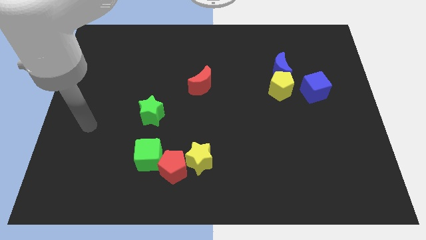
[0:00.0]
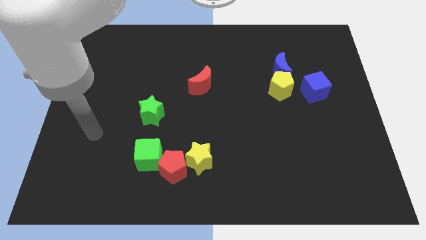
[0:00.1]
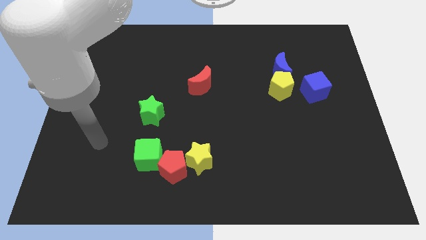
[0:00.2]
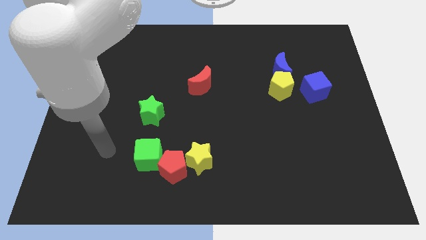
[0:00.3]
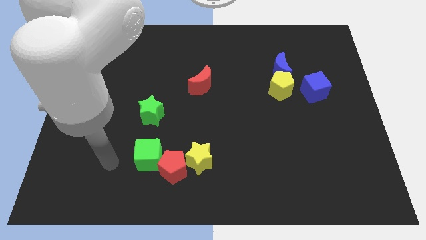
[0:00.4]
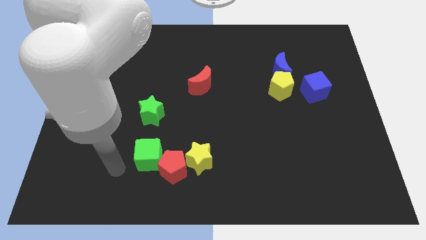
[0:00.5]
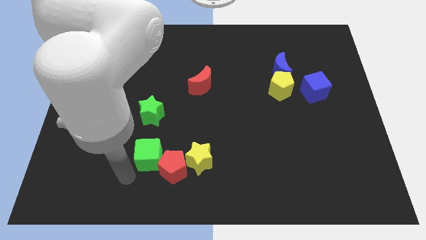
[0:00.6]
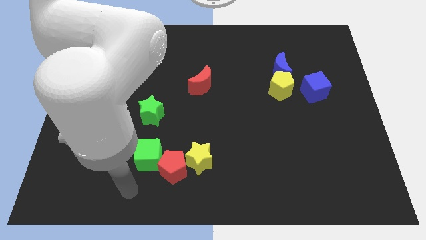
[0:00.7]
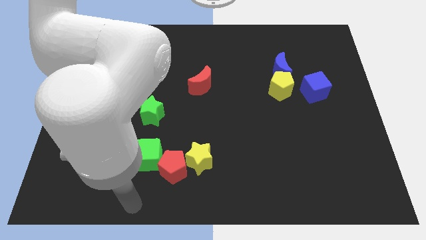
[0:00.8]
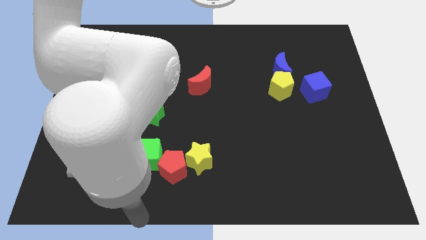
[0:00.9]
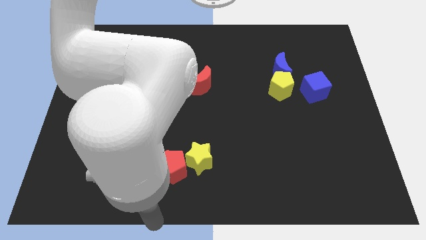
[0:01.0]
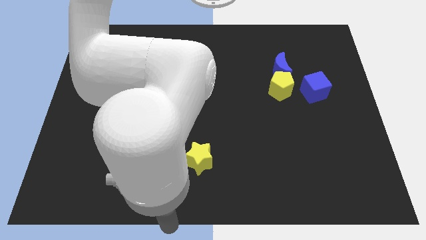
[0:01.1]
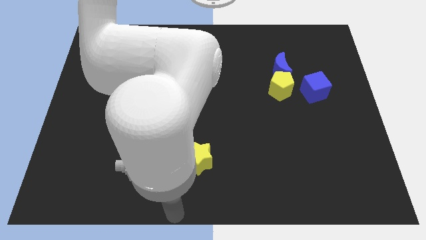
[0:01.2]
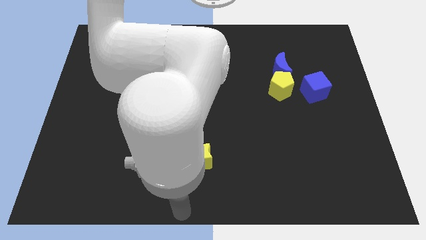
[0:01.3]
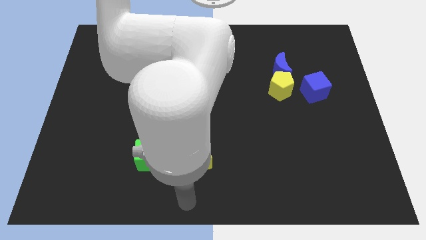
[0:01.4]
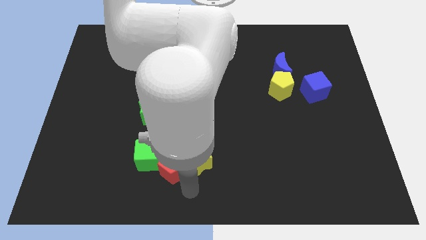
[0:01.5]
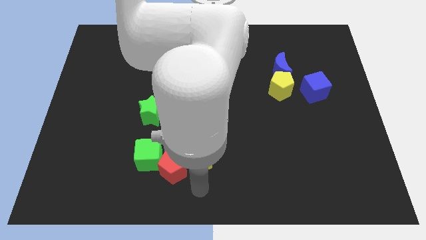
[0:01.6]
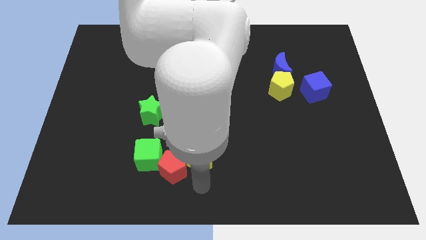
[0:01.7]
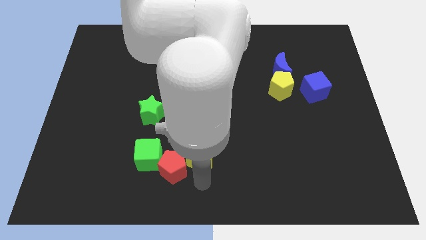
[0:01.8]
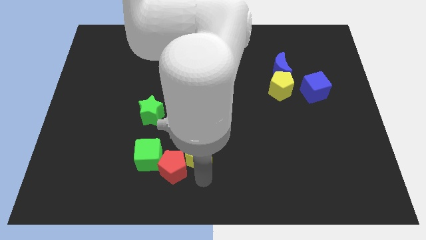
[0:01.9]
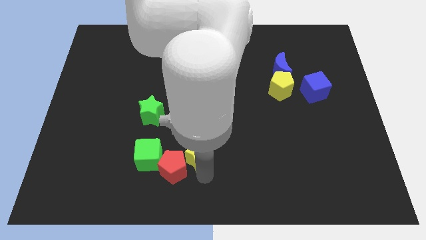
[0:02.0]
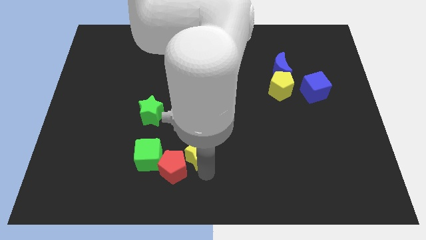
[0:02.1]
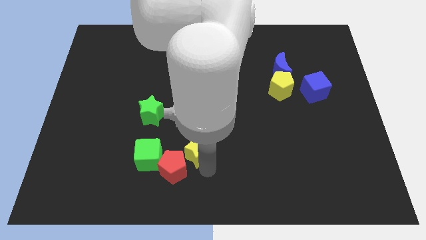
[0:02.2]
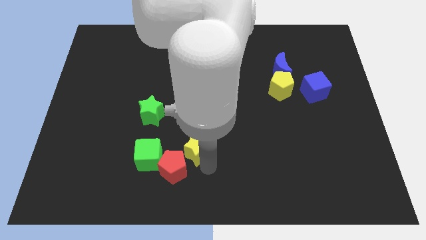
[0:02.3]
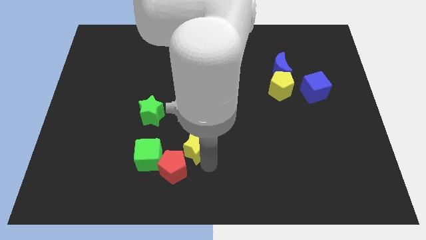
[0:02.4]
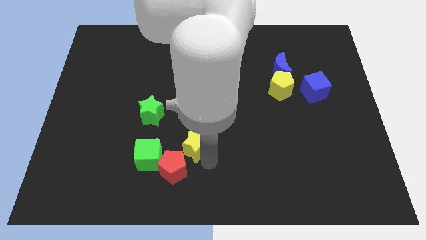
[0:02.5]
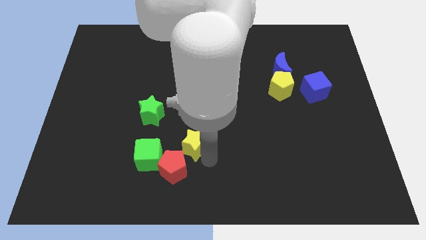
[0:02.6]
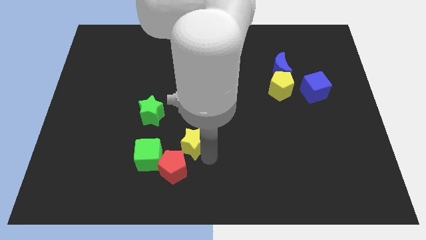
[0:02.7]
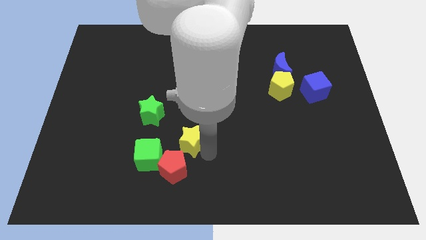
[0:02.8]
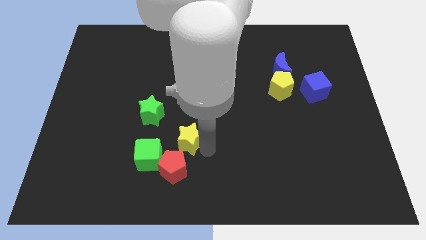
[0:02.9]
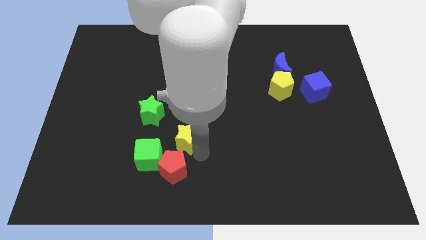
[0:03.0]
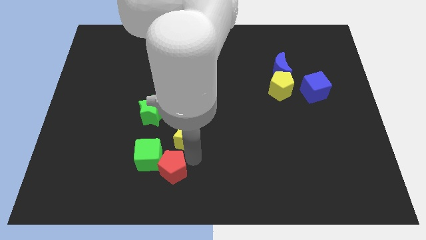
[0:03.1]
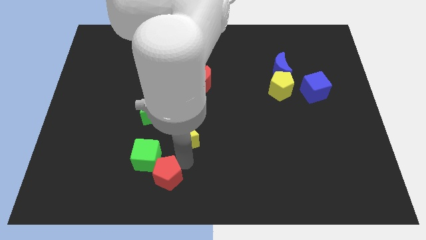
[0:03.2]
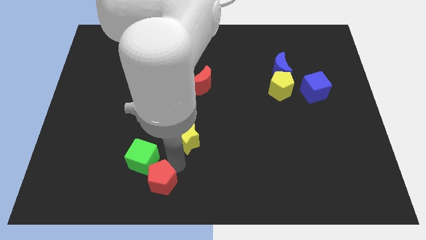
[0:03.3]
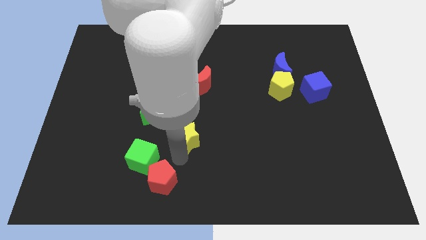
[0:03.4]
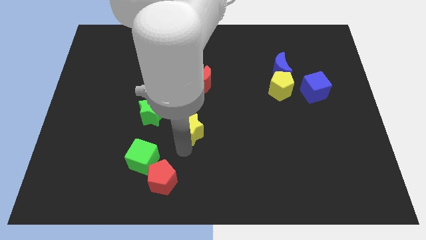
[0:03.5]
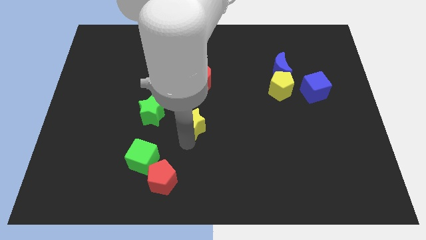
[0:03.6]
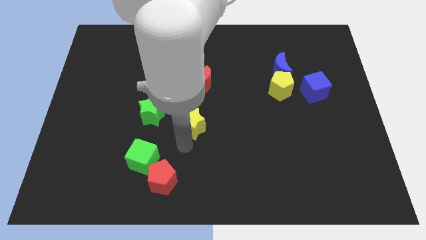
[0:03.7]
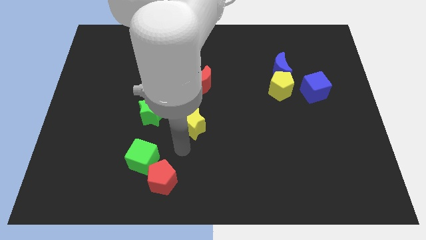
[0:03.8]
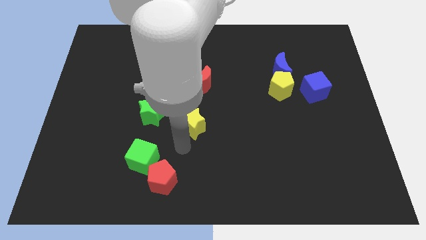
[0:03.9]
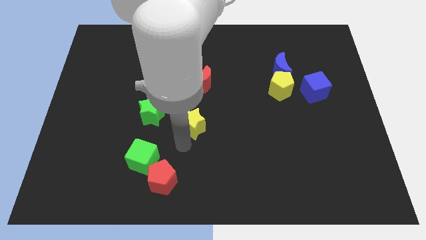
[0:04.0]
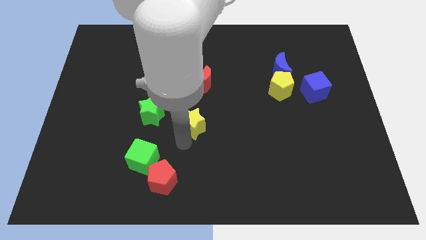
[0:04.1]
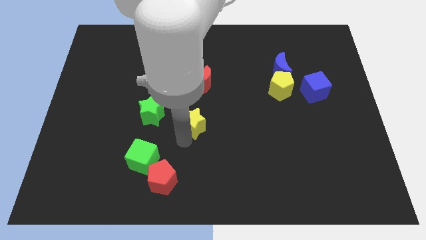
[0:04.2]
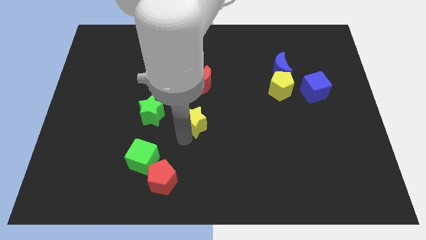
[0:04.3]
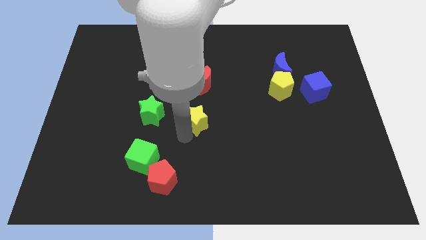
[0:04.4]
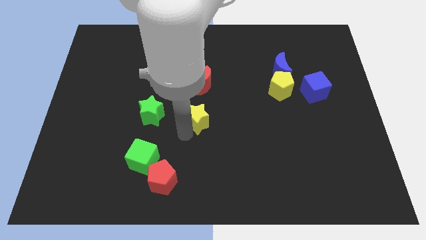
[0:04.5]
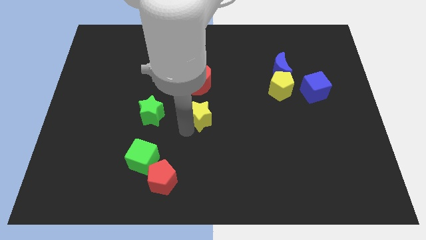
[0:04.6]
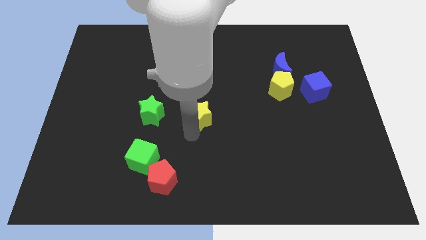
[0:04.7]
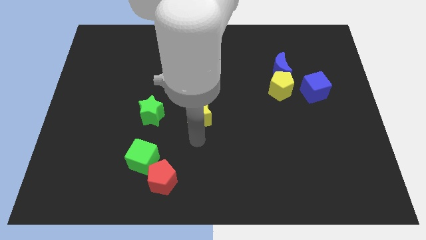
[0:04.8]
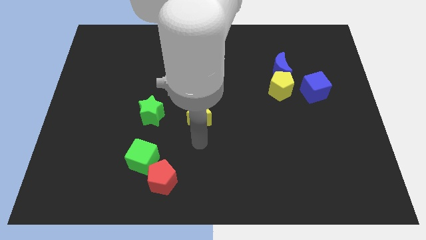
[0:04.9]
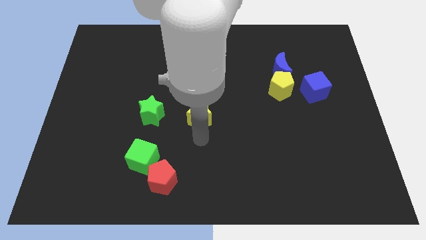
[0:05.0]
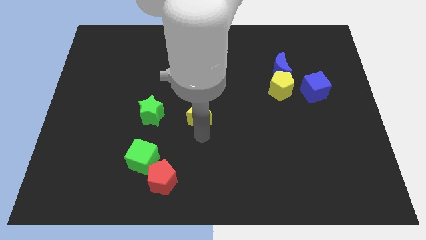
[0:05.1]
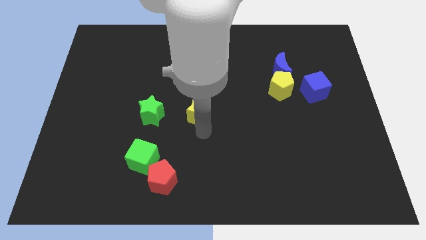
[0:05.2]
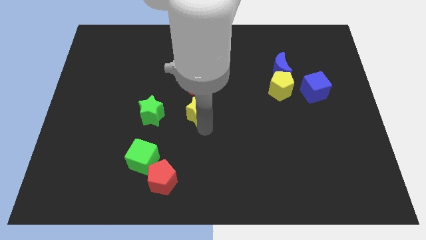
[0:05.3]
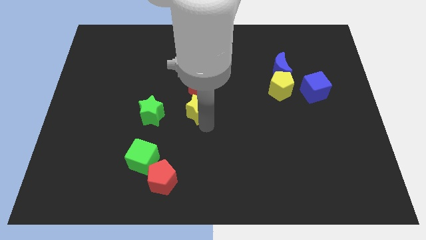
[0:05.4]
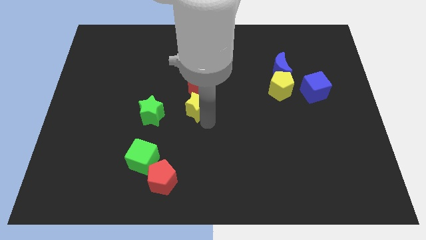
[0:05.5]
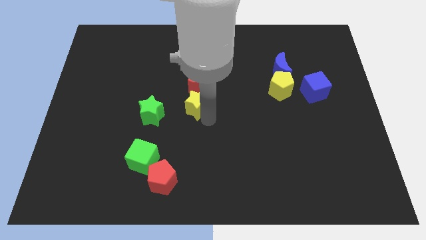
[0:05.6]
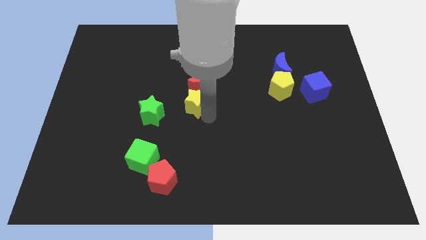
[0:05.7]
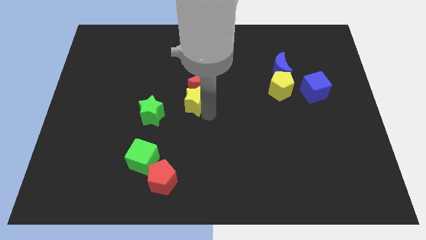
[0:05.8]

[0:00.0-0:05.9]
push the yellow star close to the red moon
